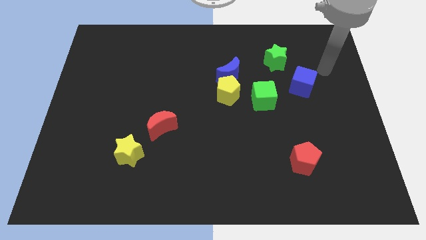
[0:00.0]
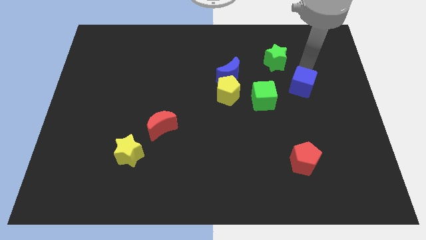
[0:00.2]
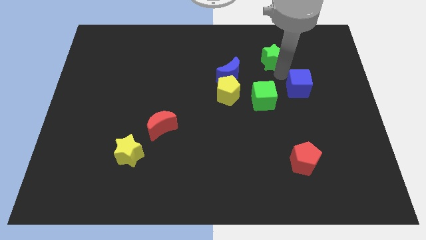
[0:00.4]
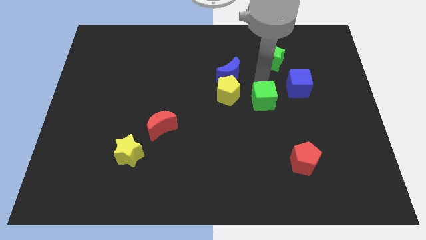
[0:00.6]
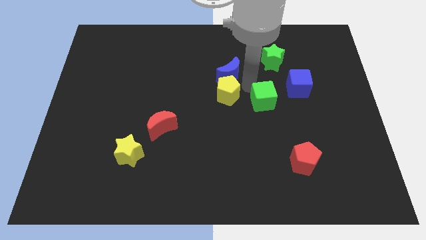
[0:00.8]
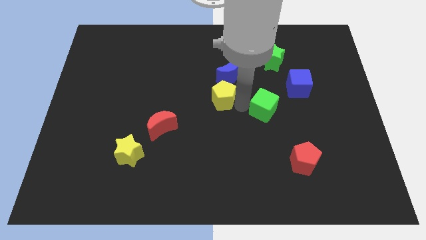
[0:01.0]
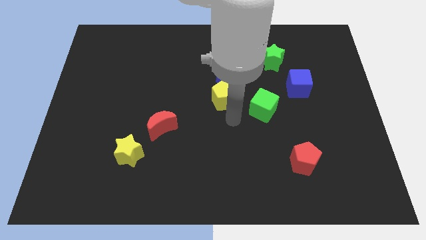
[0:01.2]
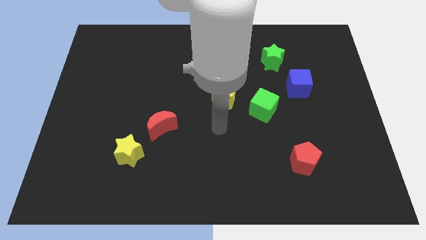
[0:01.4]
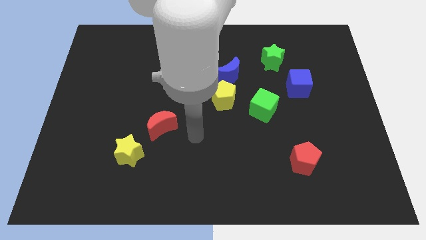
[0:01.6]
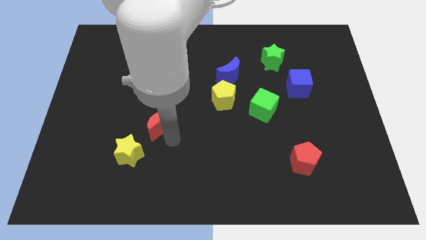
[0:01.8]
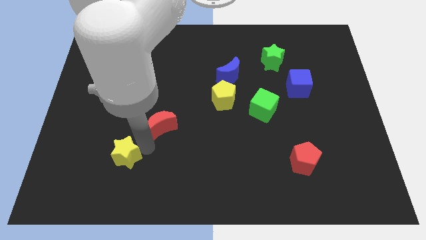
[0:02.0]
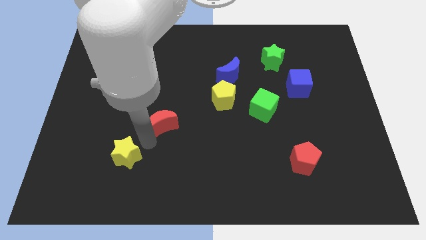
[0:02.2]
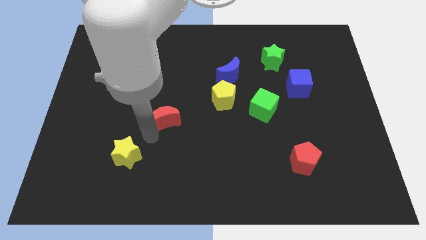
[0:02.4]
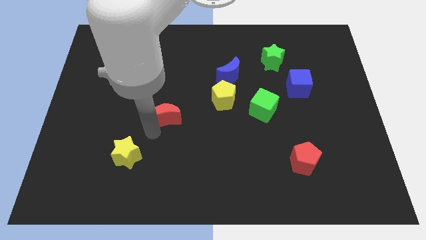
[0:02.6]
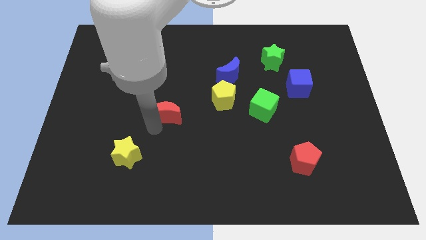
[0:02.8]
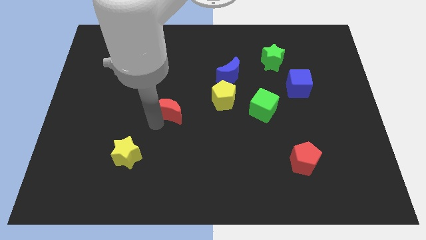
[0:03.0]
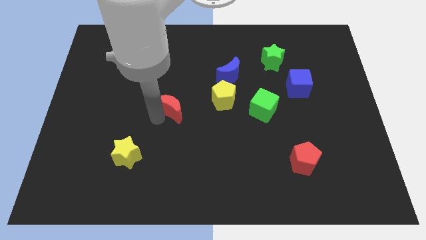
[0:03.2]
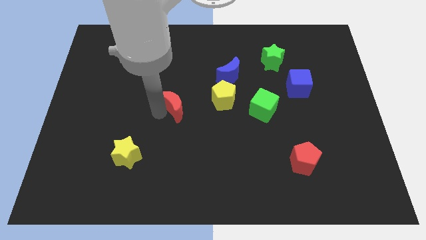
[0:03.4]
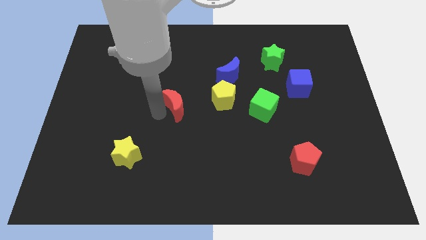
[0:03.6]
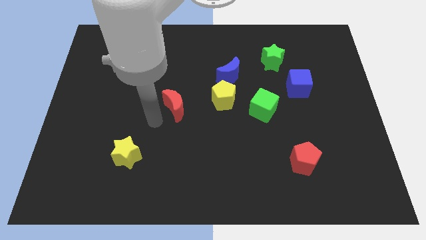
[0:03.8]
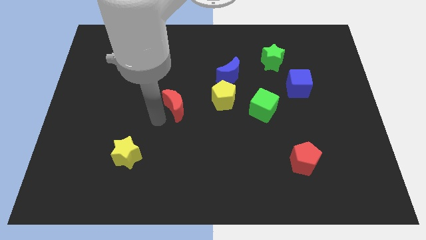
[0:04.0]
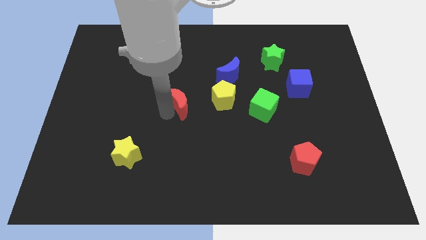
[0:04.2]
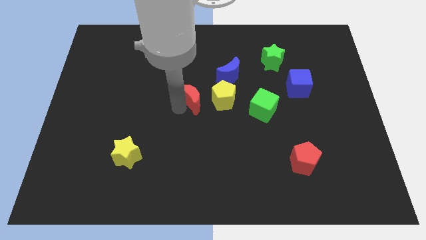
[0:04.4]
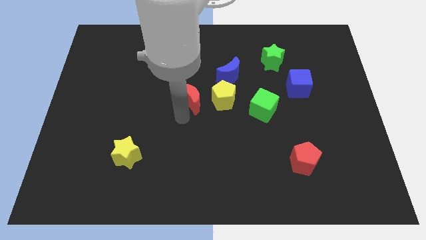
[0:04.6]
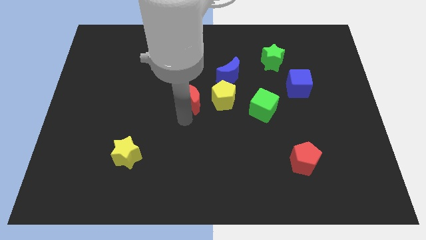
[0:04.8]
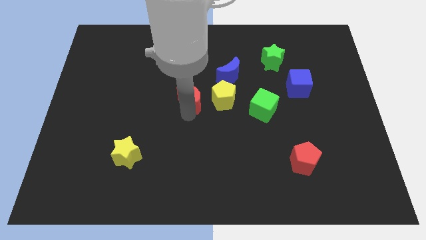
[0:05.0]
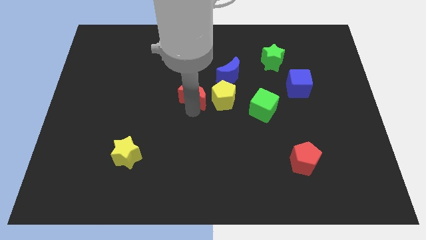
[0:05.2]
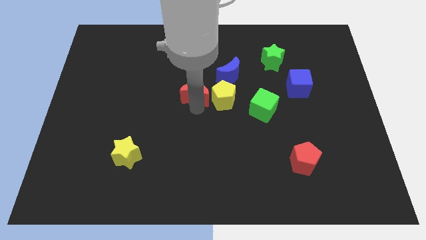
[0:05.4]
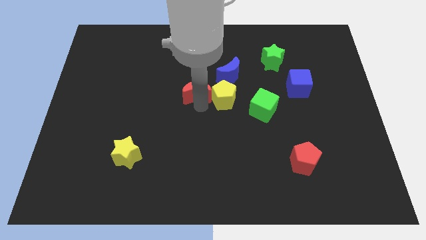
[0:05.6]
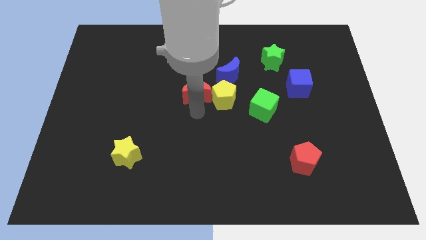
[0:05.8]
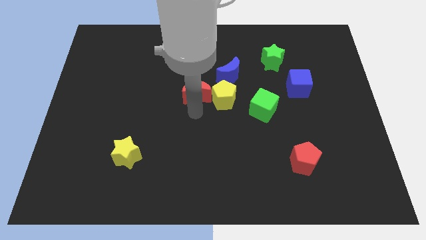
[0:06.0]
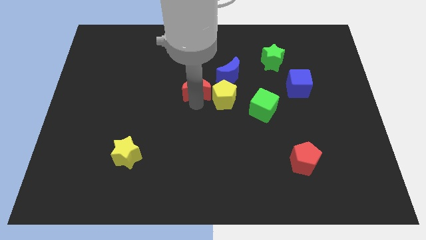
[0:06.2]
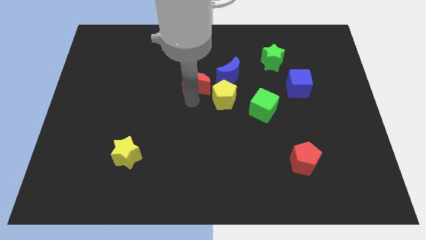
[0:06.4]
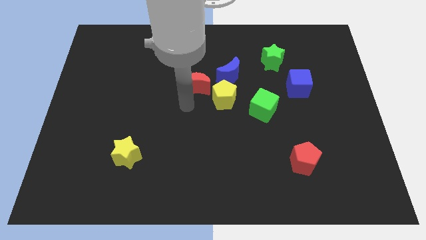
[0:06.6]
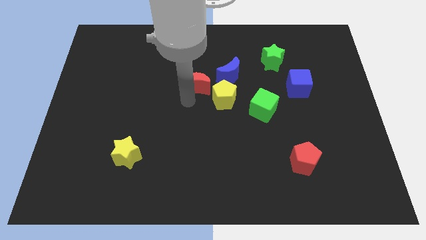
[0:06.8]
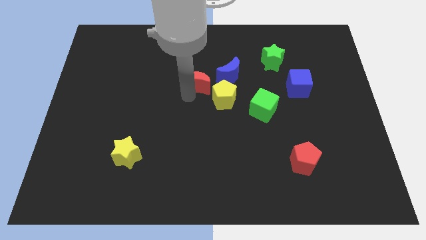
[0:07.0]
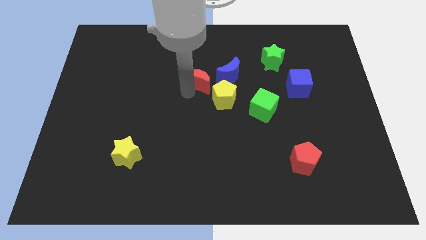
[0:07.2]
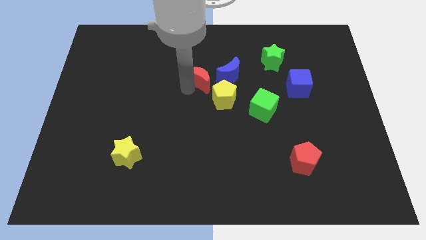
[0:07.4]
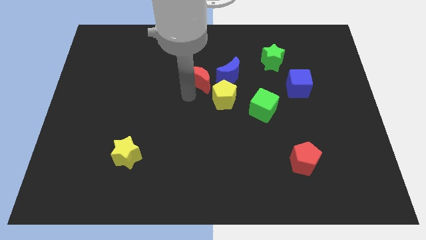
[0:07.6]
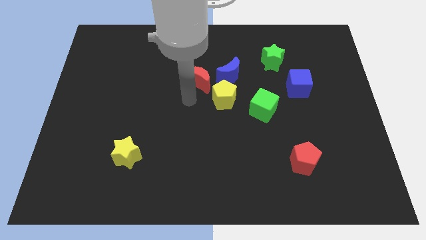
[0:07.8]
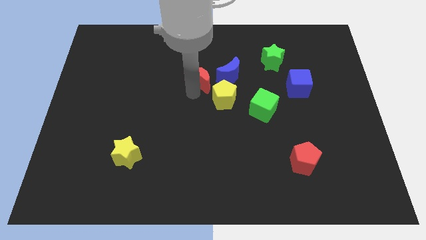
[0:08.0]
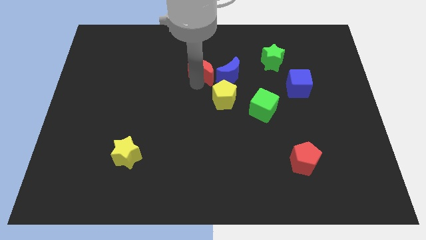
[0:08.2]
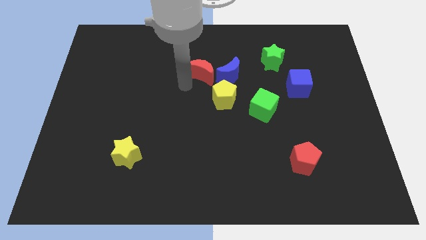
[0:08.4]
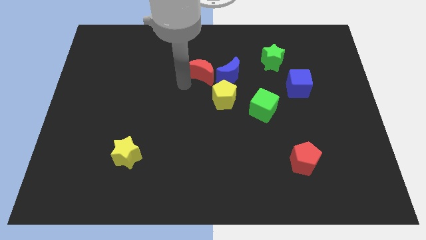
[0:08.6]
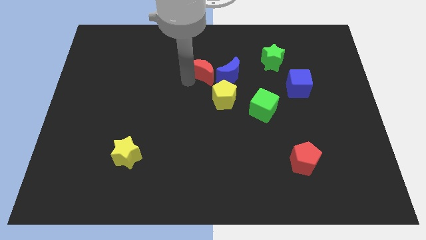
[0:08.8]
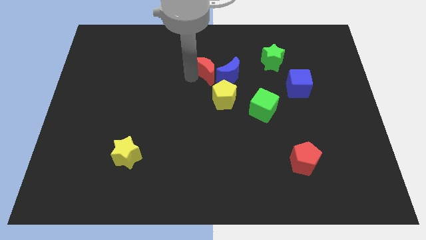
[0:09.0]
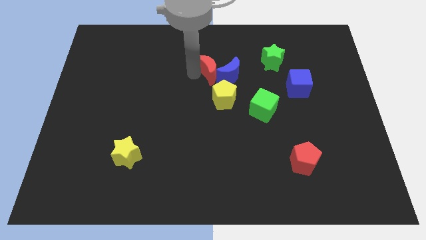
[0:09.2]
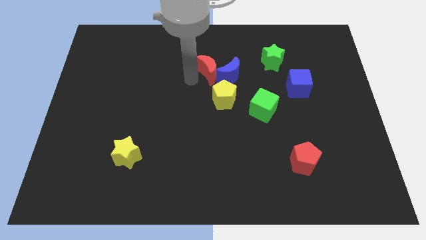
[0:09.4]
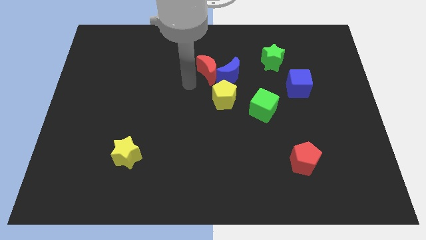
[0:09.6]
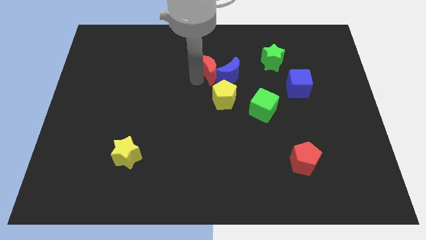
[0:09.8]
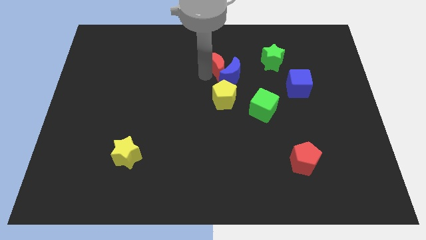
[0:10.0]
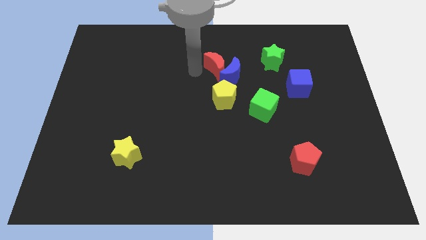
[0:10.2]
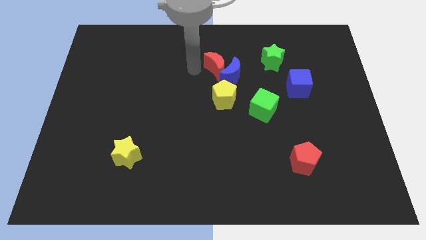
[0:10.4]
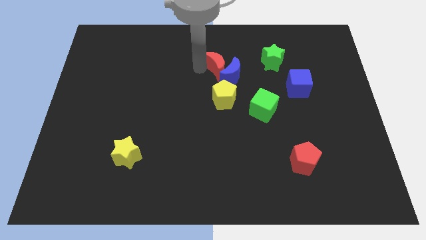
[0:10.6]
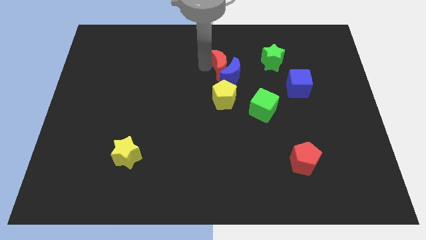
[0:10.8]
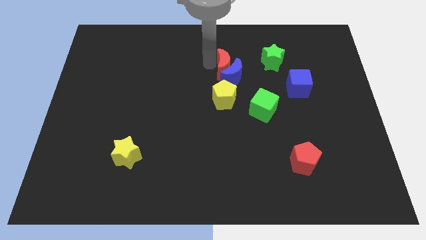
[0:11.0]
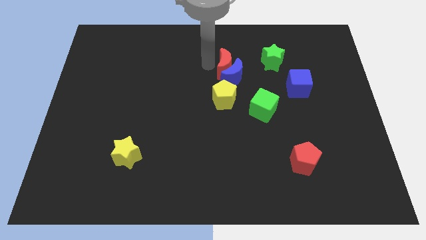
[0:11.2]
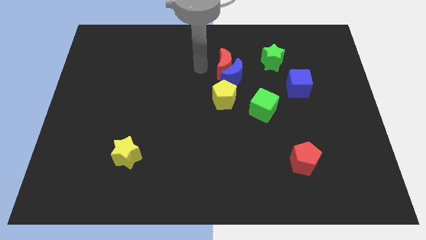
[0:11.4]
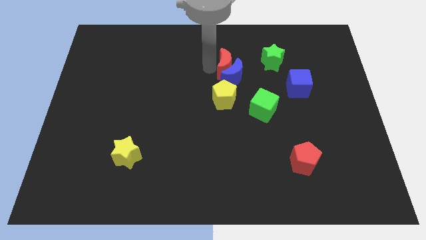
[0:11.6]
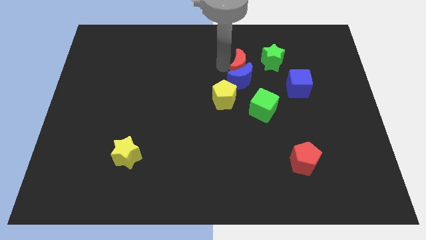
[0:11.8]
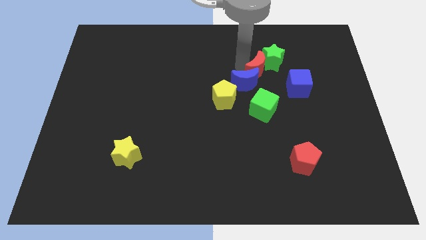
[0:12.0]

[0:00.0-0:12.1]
push the red moon to the right of the blue moon

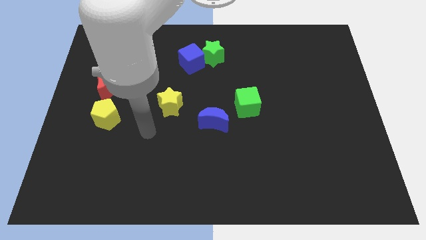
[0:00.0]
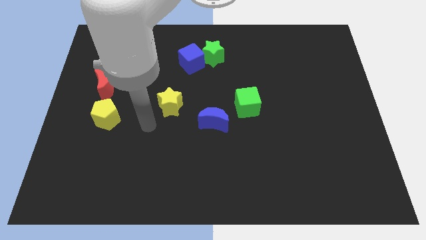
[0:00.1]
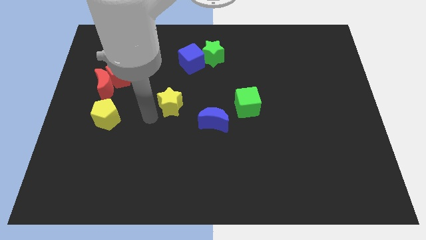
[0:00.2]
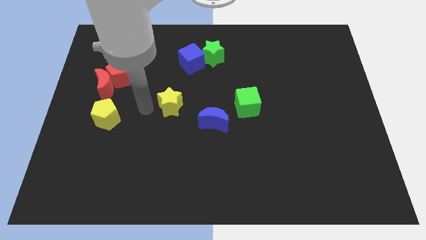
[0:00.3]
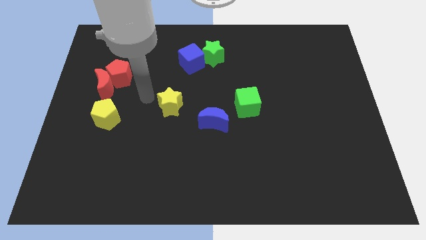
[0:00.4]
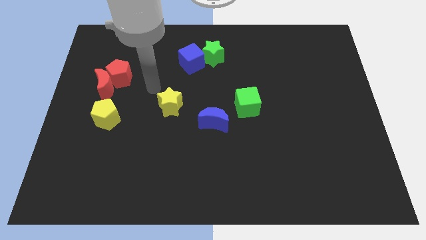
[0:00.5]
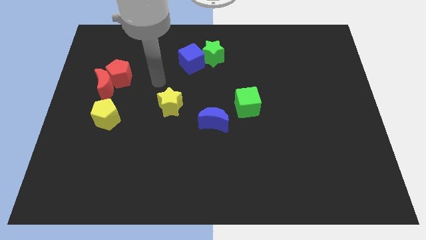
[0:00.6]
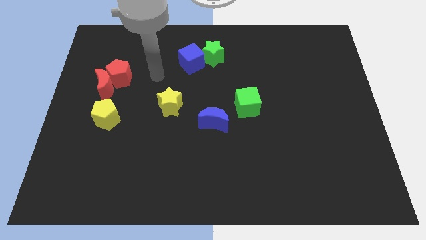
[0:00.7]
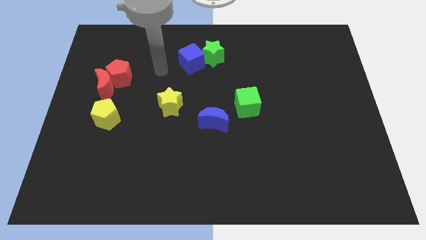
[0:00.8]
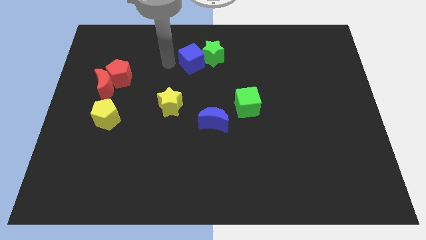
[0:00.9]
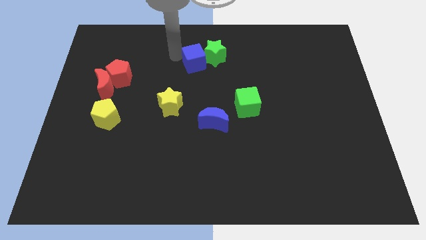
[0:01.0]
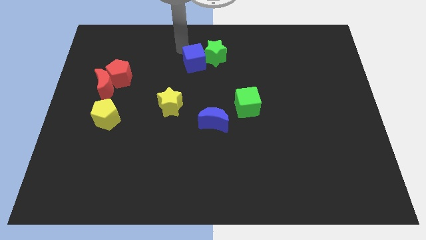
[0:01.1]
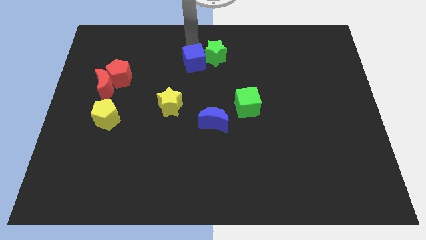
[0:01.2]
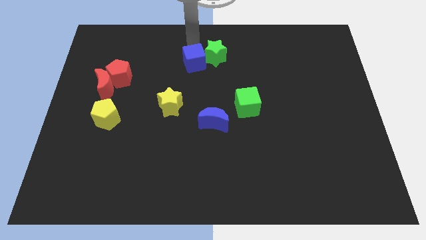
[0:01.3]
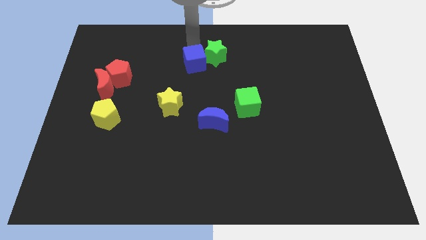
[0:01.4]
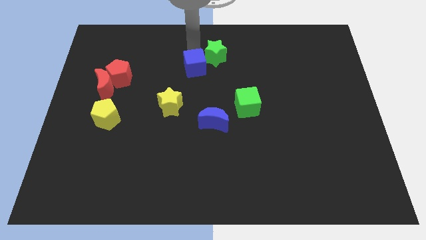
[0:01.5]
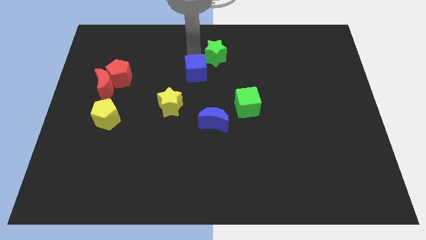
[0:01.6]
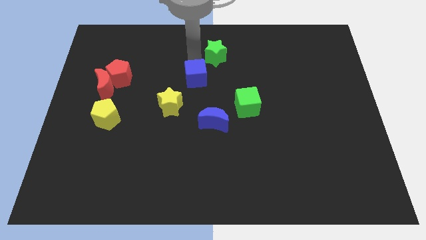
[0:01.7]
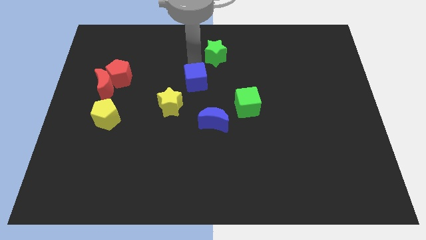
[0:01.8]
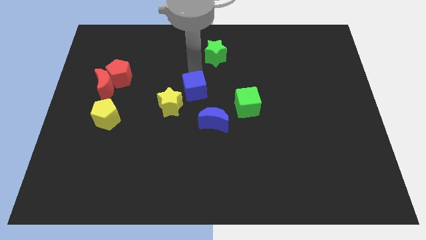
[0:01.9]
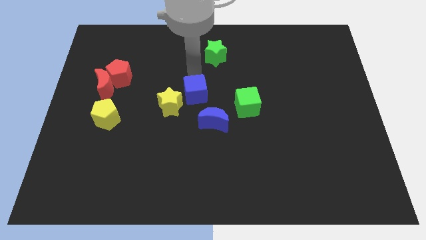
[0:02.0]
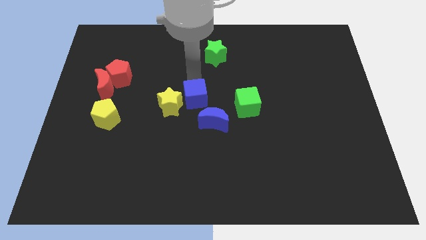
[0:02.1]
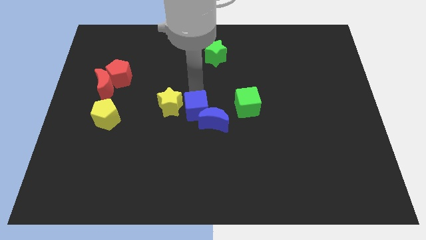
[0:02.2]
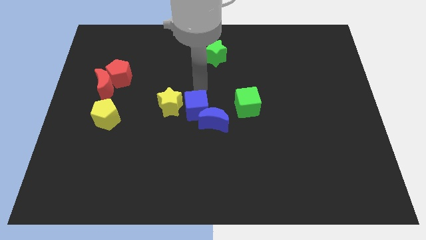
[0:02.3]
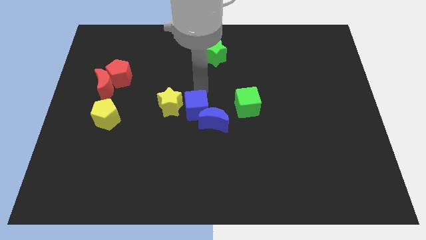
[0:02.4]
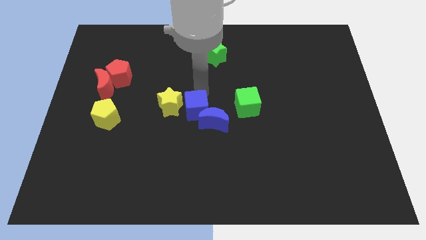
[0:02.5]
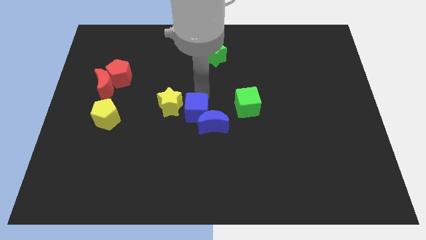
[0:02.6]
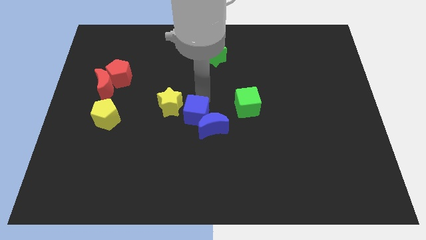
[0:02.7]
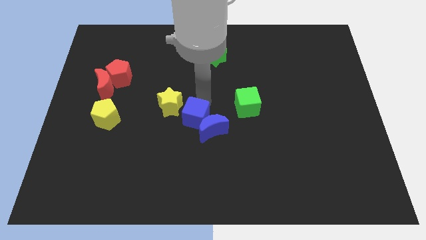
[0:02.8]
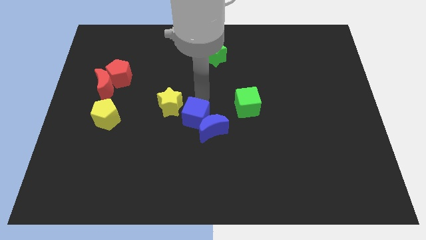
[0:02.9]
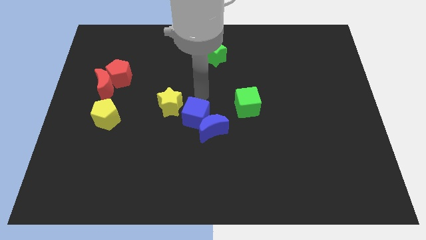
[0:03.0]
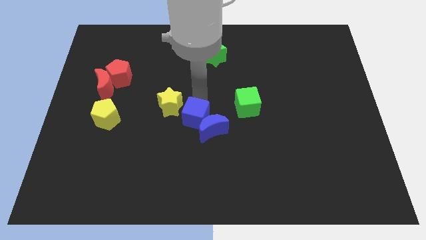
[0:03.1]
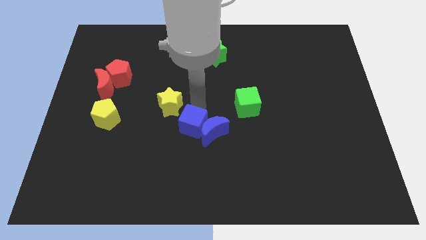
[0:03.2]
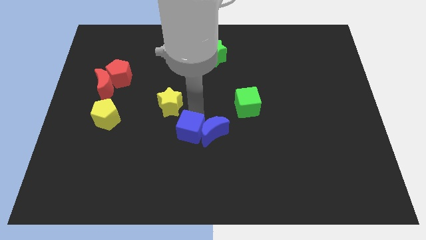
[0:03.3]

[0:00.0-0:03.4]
slide the blue cube to the bottom left side of the blue moon
